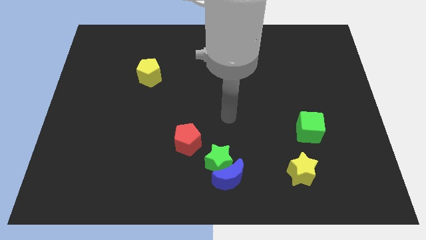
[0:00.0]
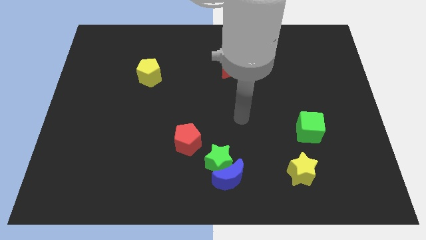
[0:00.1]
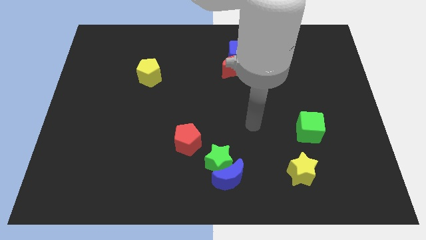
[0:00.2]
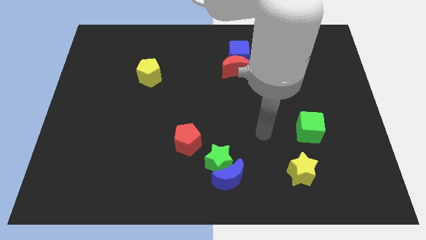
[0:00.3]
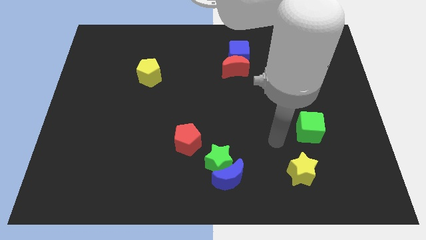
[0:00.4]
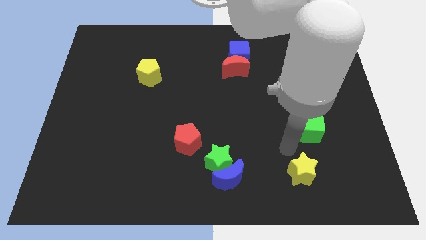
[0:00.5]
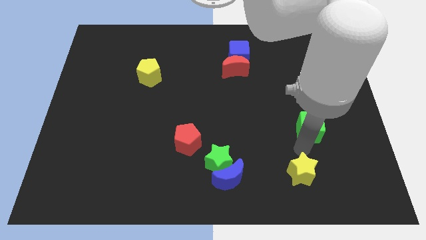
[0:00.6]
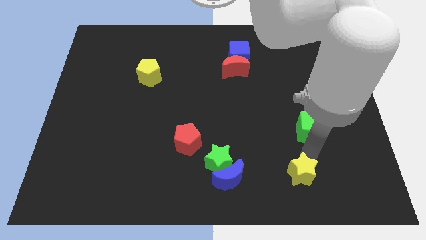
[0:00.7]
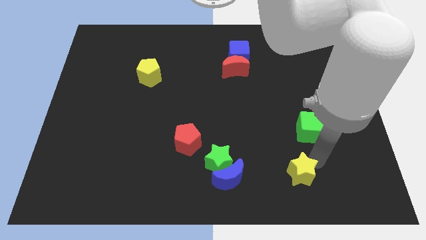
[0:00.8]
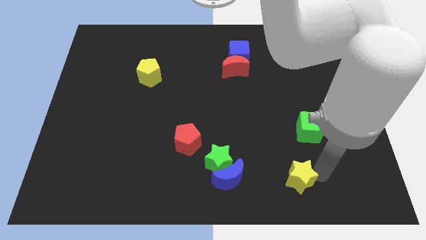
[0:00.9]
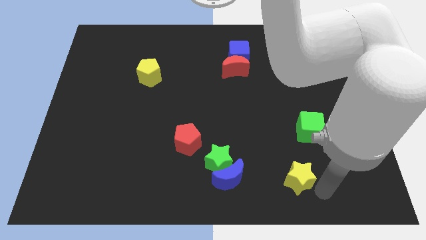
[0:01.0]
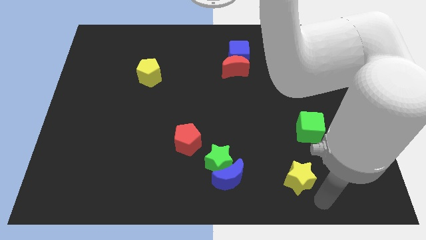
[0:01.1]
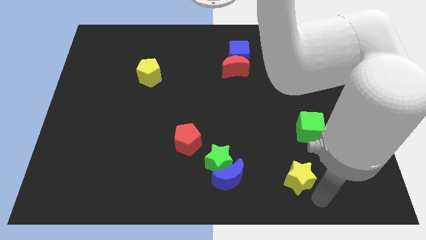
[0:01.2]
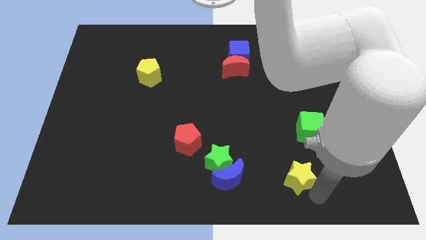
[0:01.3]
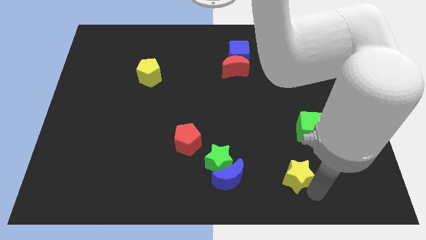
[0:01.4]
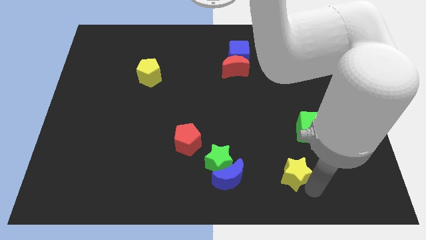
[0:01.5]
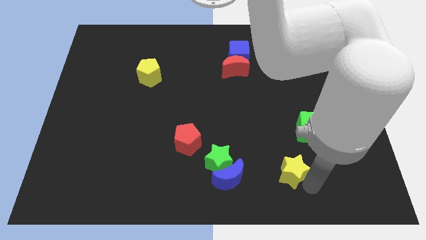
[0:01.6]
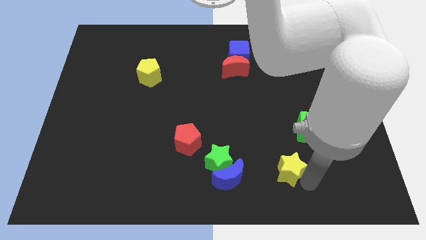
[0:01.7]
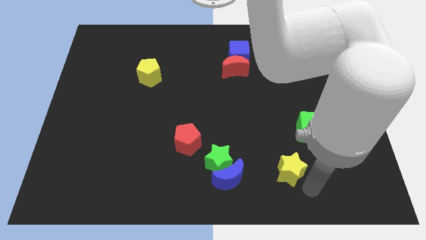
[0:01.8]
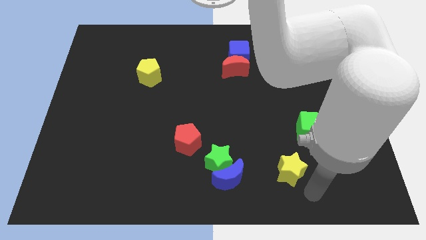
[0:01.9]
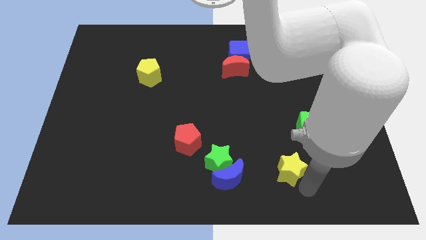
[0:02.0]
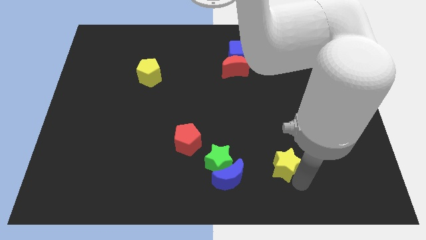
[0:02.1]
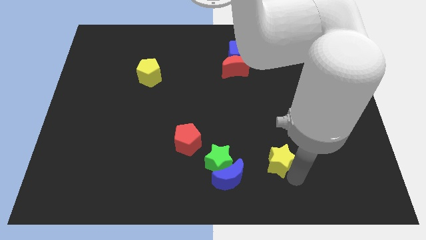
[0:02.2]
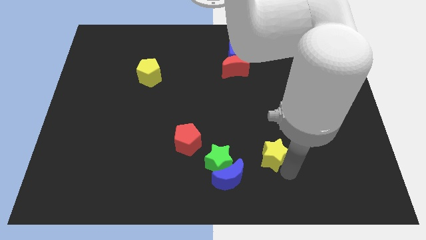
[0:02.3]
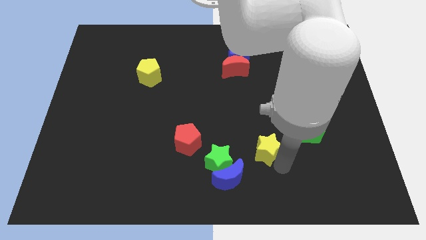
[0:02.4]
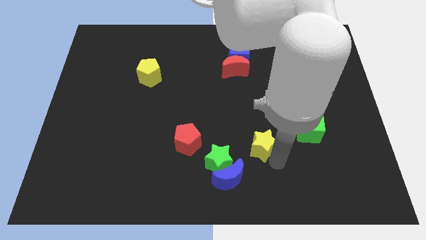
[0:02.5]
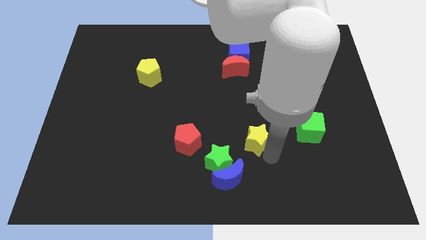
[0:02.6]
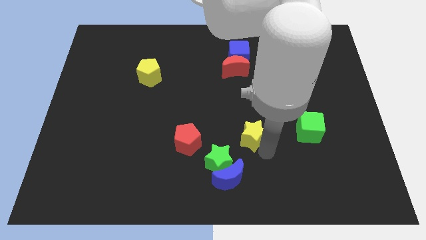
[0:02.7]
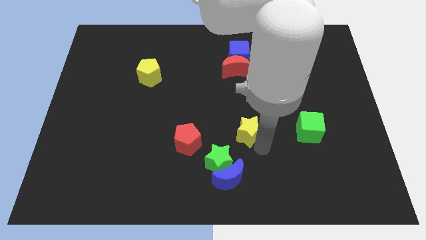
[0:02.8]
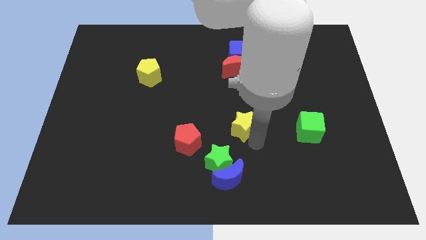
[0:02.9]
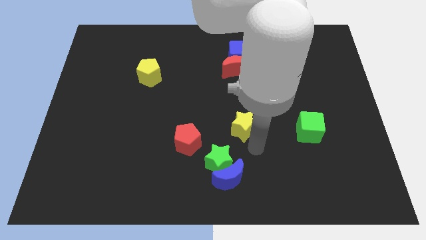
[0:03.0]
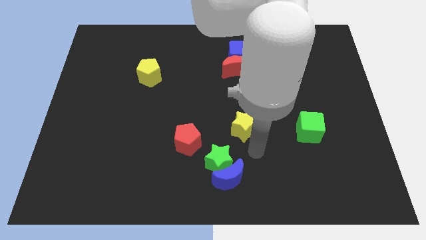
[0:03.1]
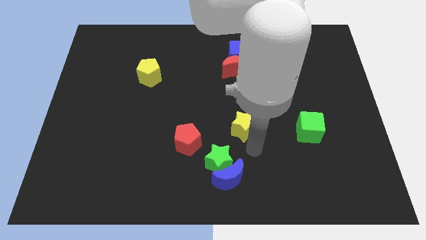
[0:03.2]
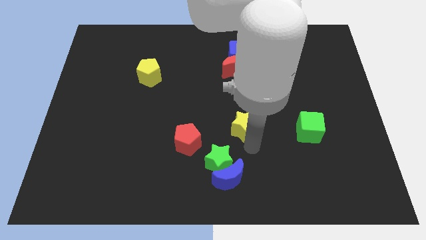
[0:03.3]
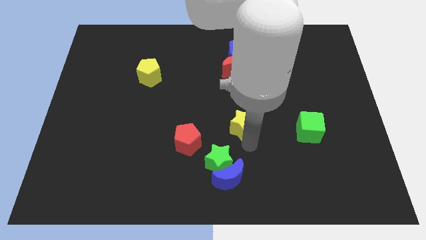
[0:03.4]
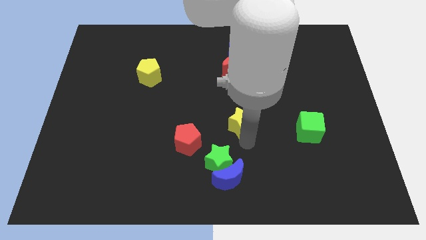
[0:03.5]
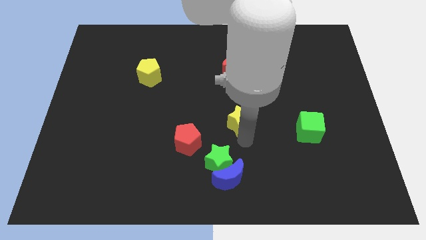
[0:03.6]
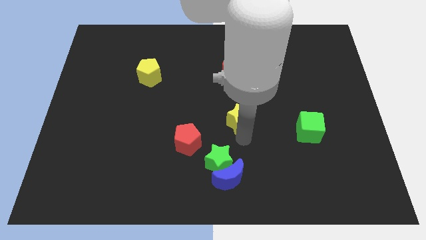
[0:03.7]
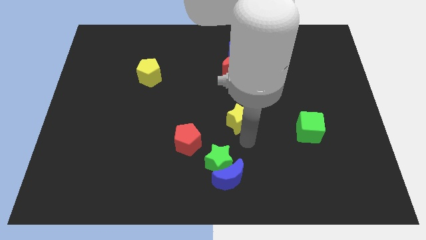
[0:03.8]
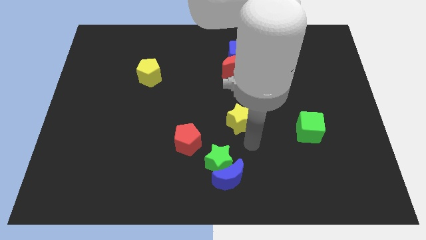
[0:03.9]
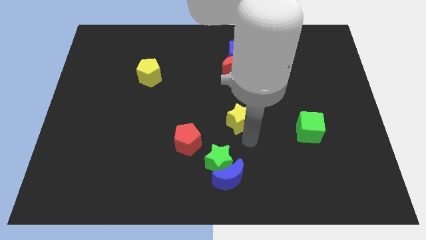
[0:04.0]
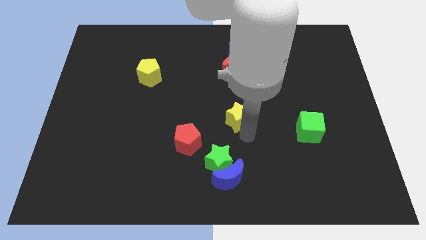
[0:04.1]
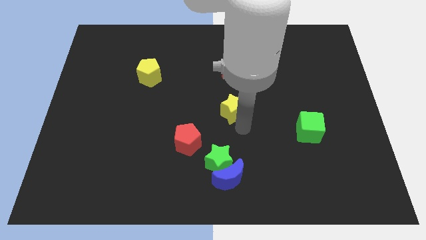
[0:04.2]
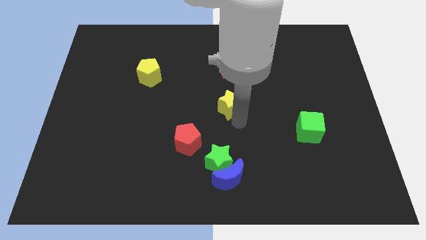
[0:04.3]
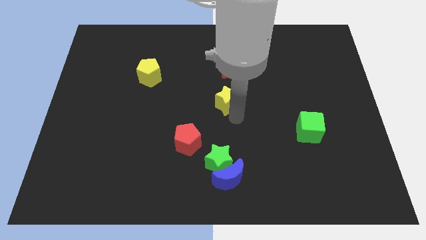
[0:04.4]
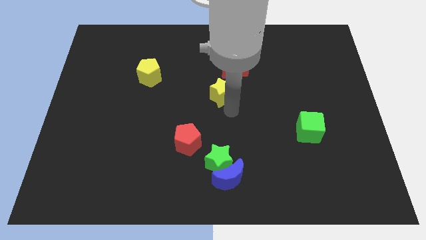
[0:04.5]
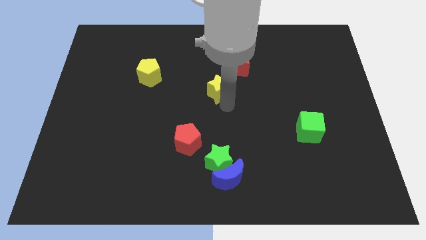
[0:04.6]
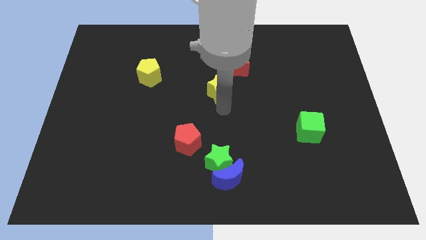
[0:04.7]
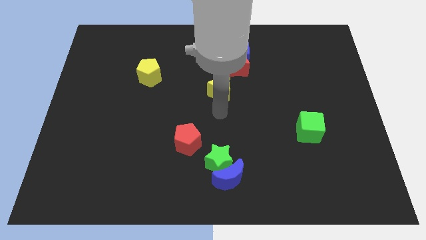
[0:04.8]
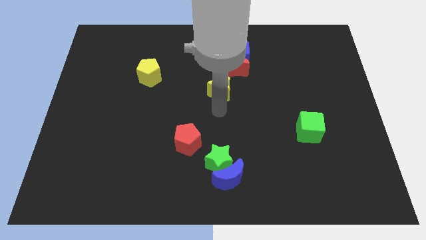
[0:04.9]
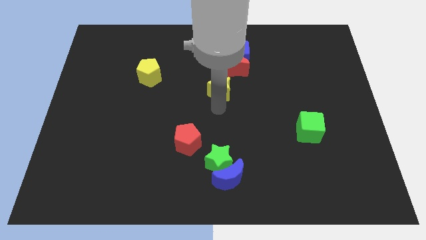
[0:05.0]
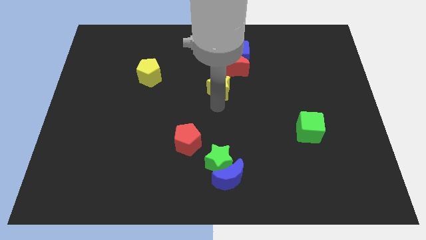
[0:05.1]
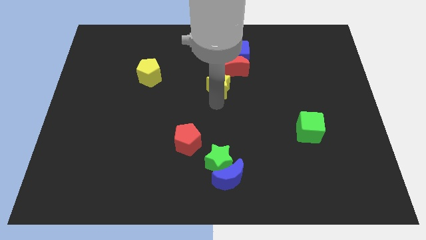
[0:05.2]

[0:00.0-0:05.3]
slide the yellow star to the bottom left side of the blue cube

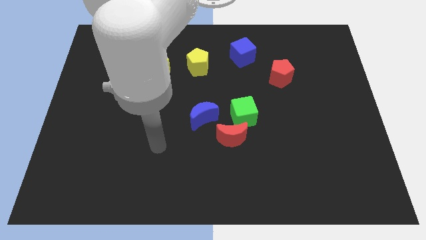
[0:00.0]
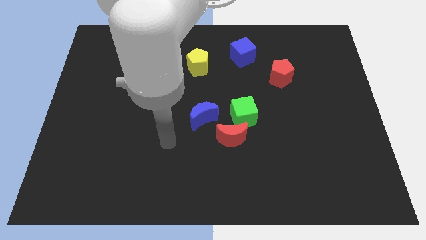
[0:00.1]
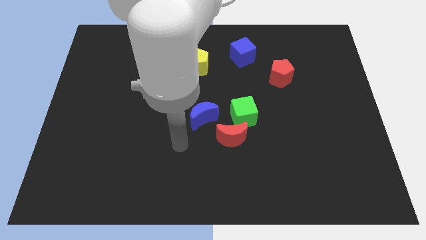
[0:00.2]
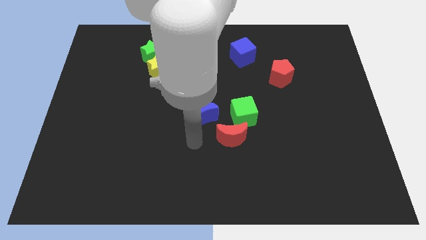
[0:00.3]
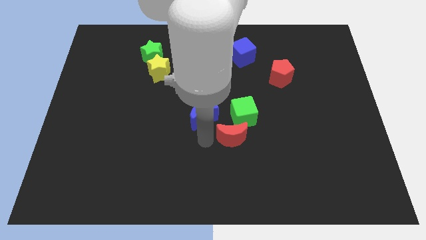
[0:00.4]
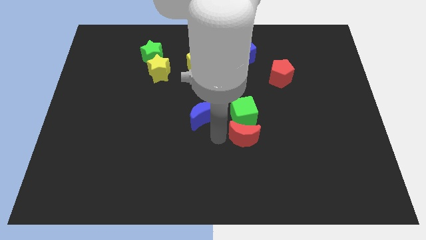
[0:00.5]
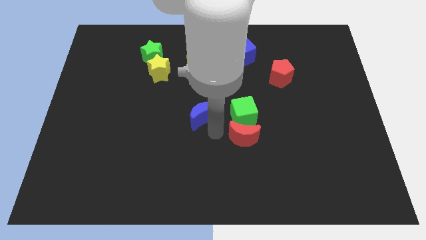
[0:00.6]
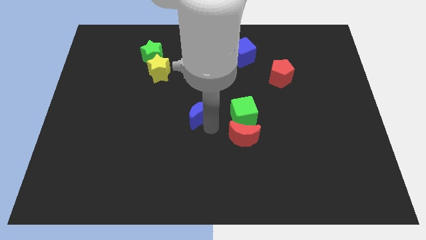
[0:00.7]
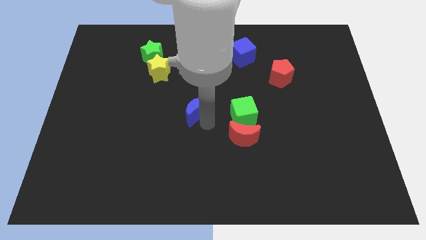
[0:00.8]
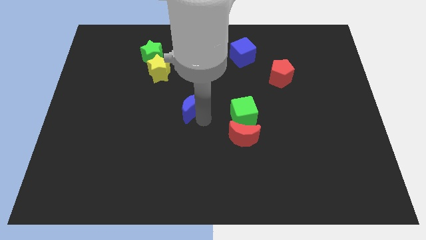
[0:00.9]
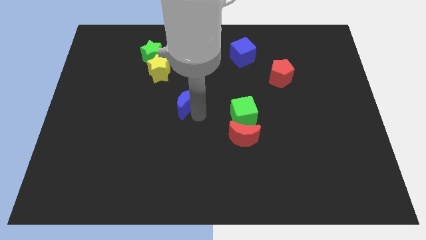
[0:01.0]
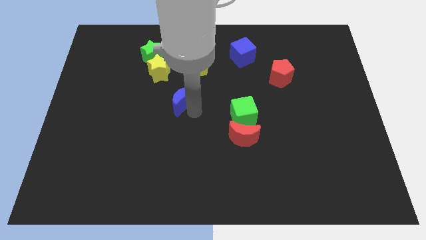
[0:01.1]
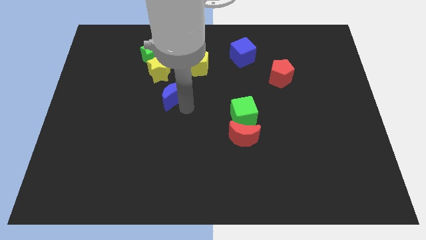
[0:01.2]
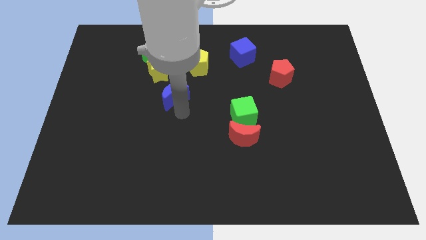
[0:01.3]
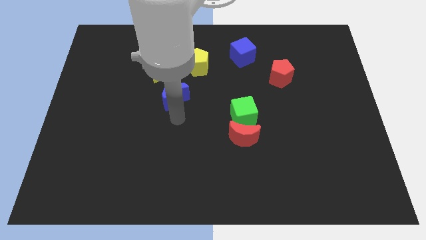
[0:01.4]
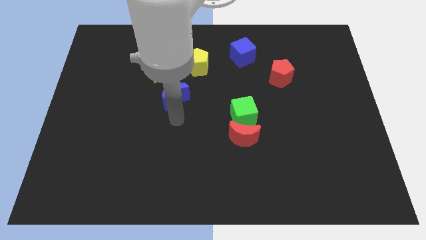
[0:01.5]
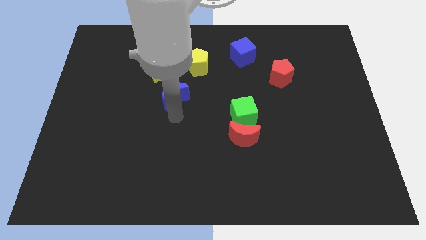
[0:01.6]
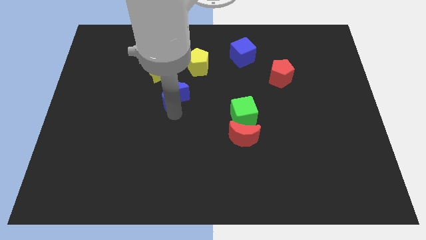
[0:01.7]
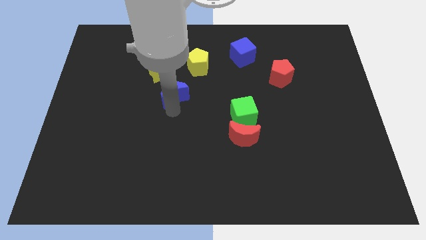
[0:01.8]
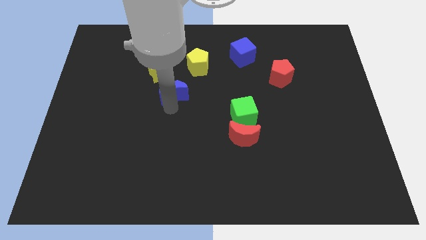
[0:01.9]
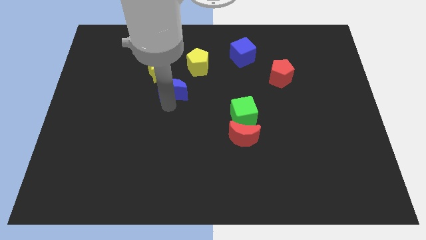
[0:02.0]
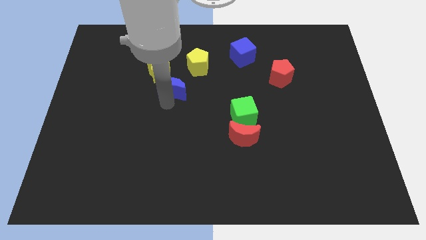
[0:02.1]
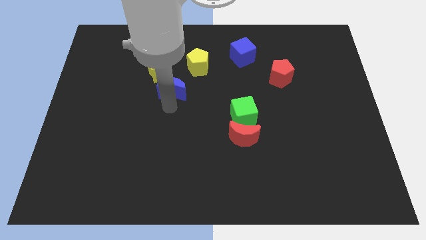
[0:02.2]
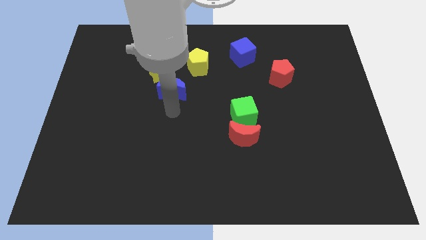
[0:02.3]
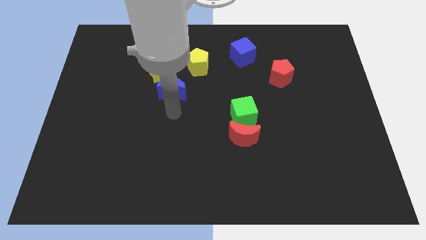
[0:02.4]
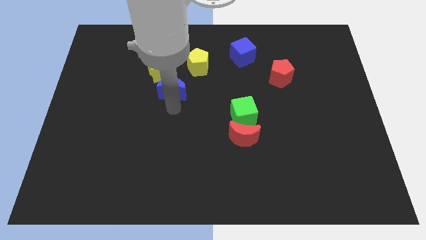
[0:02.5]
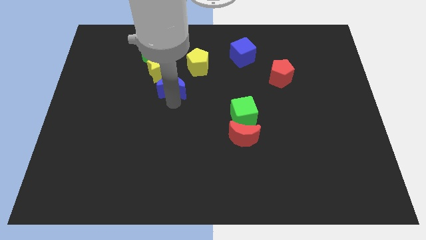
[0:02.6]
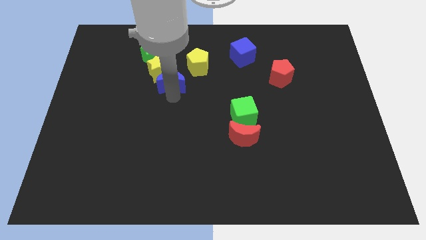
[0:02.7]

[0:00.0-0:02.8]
push the blue moon diagonally down and to the right of the green star
